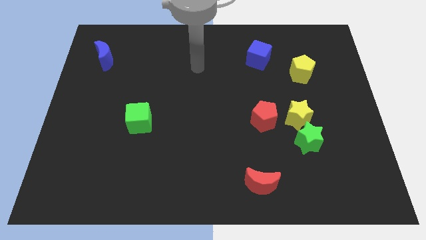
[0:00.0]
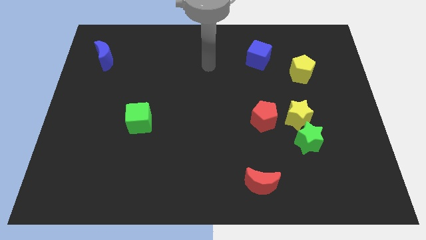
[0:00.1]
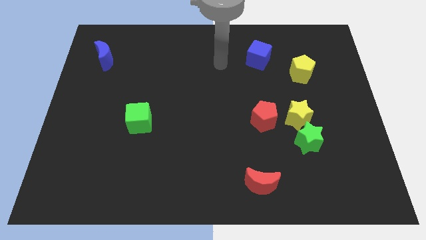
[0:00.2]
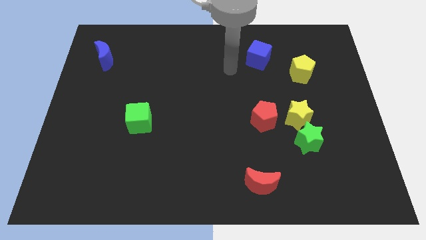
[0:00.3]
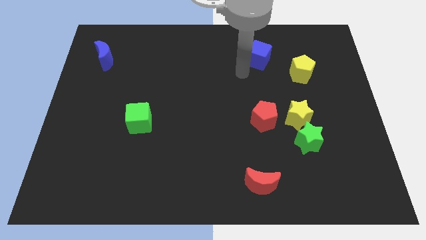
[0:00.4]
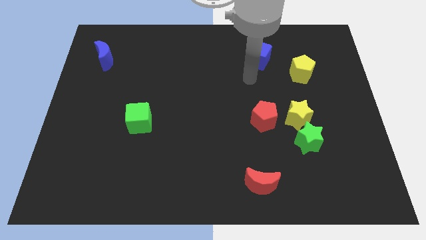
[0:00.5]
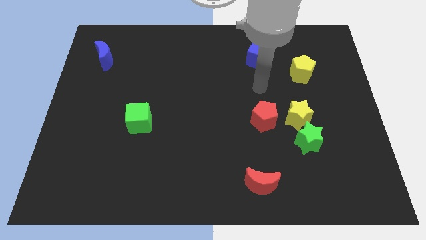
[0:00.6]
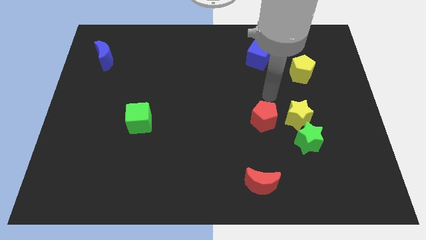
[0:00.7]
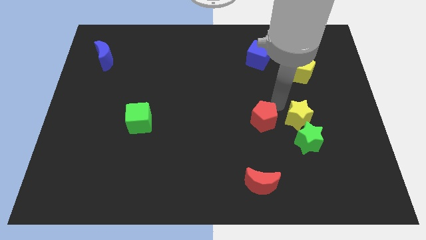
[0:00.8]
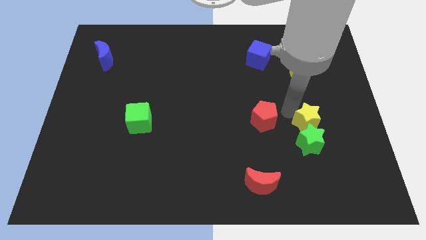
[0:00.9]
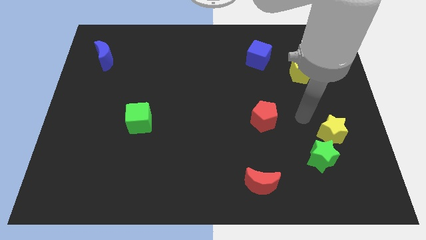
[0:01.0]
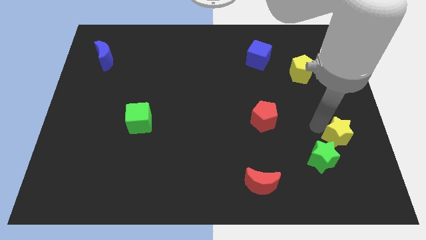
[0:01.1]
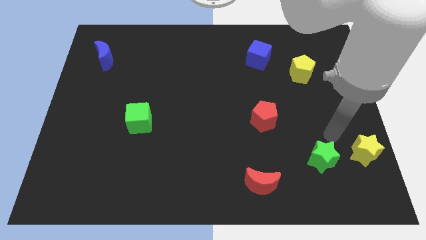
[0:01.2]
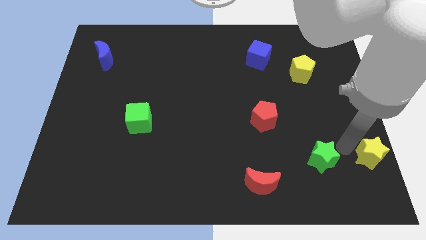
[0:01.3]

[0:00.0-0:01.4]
pull the green star apart from the yellow star

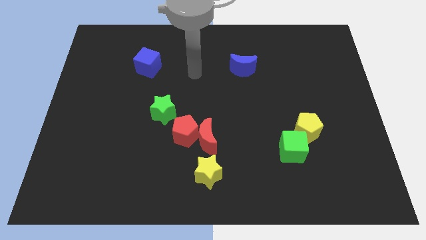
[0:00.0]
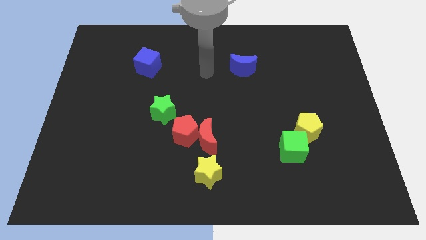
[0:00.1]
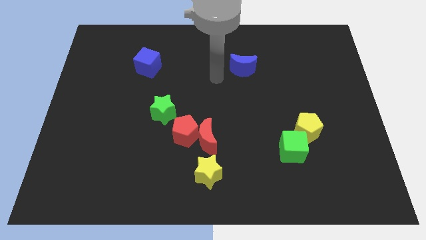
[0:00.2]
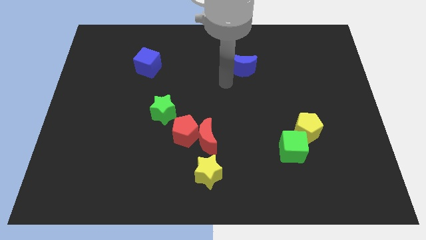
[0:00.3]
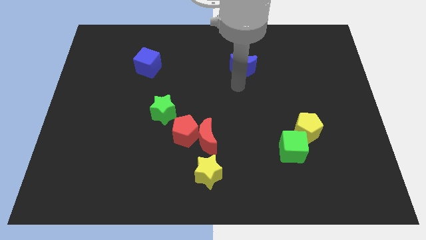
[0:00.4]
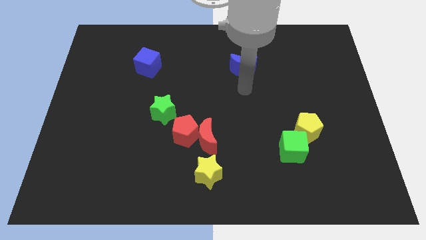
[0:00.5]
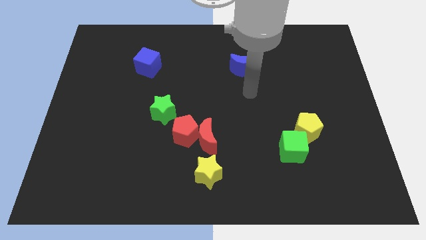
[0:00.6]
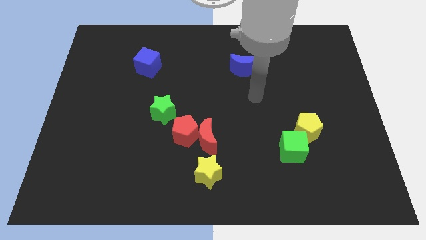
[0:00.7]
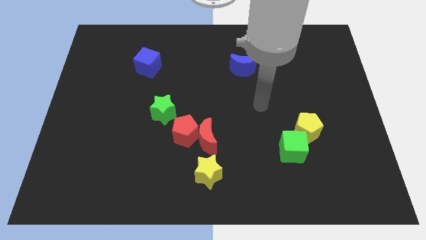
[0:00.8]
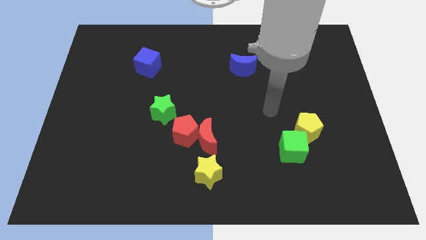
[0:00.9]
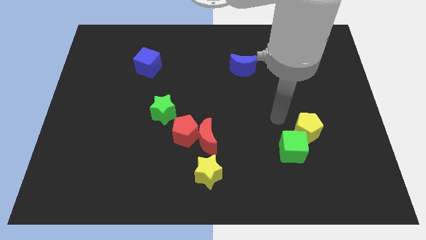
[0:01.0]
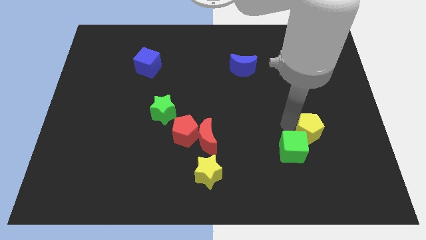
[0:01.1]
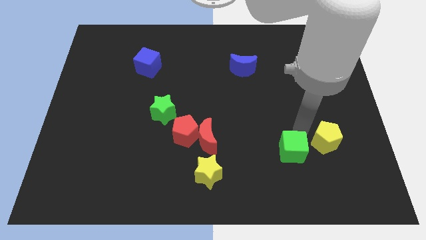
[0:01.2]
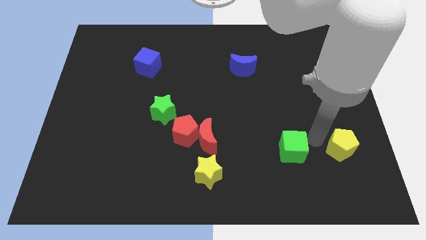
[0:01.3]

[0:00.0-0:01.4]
move the green cube away from the yellow pentagon

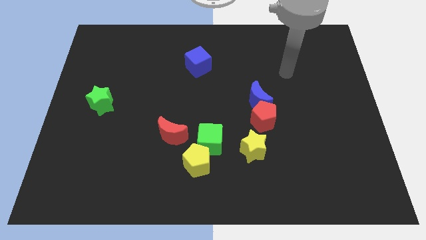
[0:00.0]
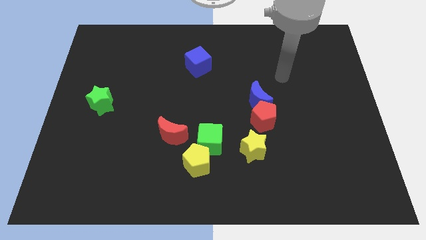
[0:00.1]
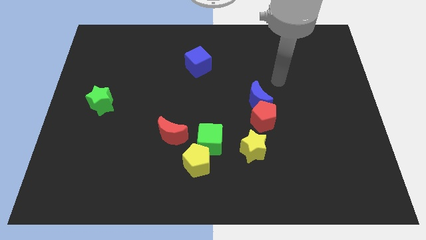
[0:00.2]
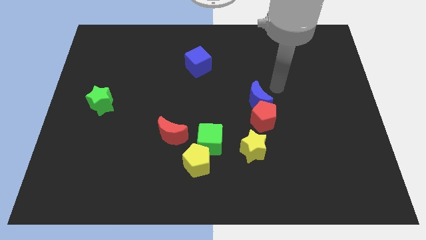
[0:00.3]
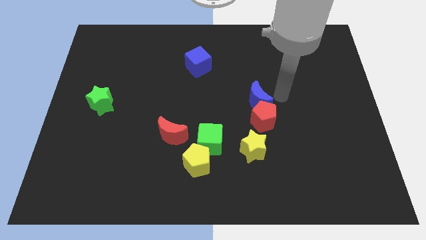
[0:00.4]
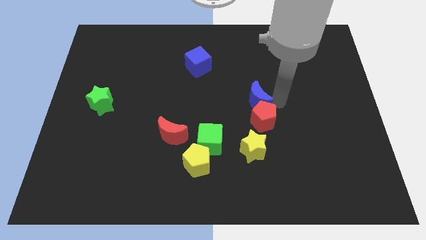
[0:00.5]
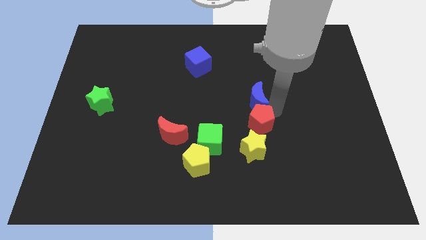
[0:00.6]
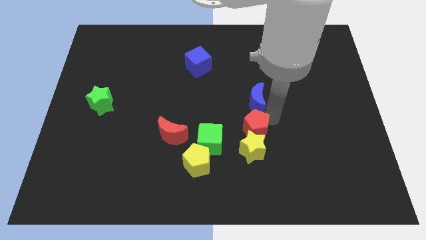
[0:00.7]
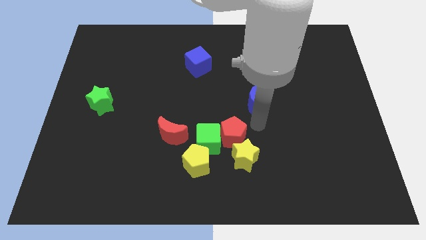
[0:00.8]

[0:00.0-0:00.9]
separate the blue moon from the red pentagon

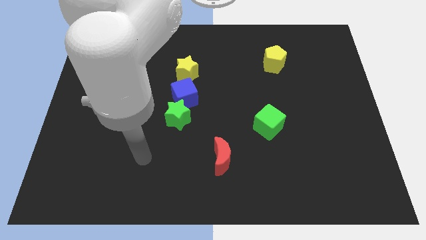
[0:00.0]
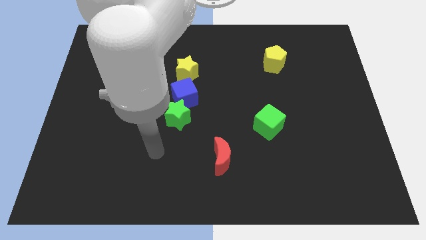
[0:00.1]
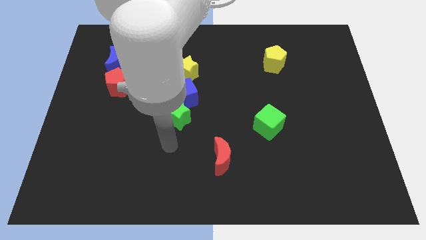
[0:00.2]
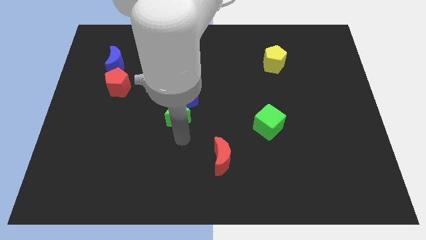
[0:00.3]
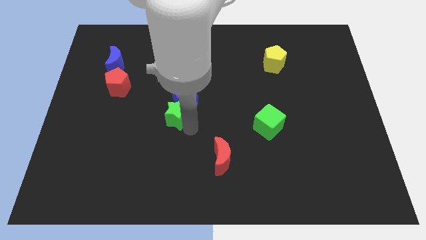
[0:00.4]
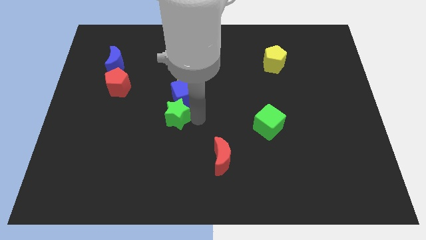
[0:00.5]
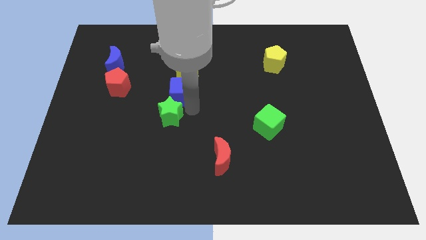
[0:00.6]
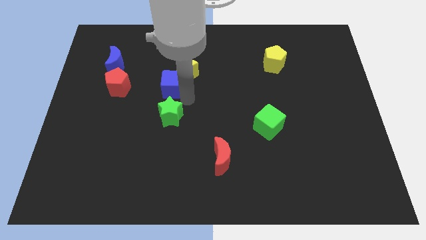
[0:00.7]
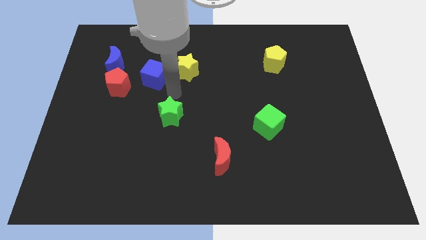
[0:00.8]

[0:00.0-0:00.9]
move the green star away from the blue cube

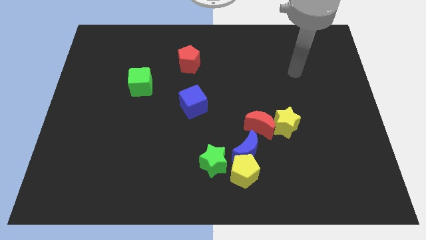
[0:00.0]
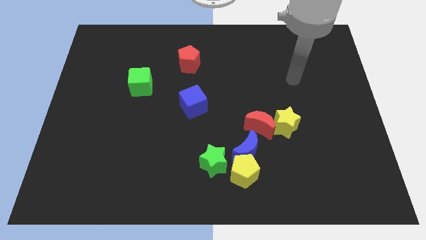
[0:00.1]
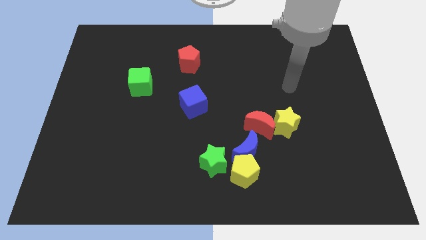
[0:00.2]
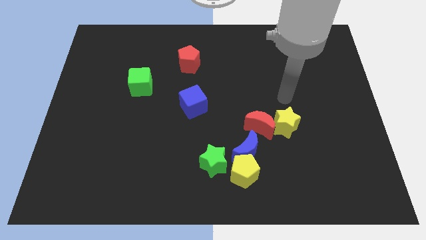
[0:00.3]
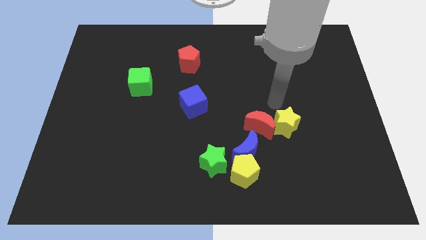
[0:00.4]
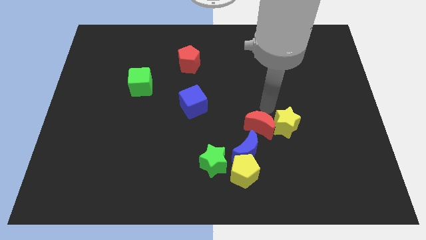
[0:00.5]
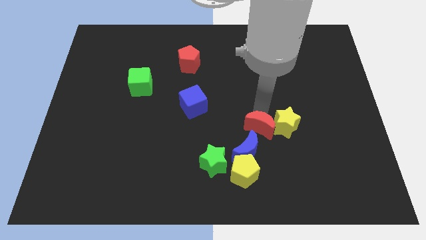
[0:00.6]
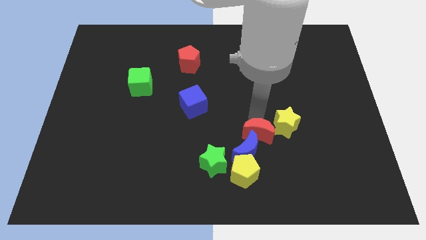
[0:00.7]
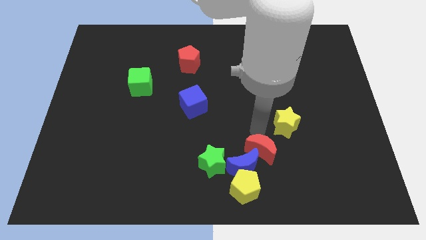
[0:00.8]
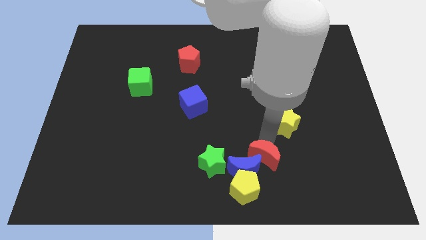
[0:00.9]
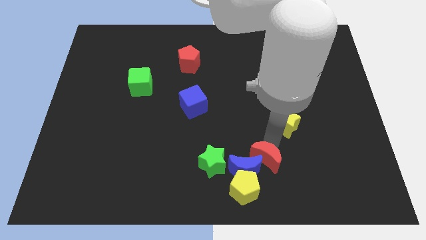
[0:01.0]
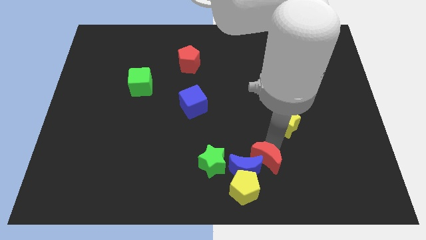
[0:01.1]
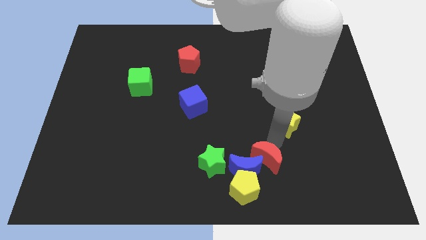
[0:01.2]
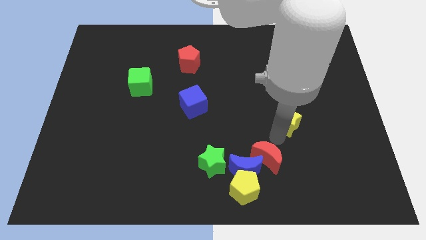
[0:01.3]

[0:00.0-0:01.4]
separate the yellow star from the red moon

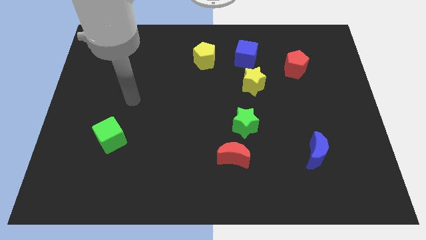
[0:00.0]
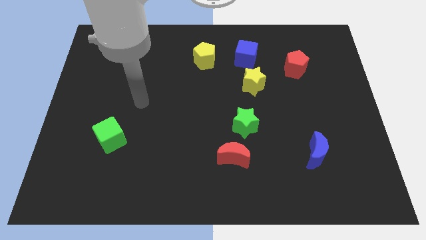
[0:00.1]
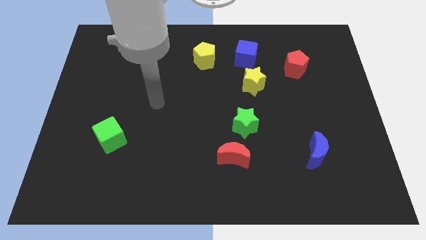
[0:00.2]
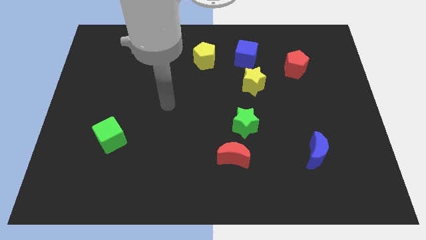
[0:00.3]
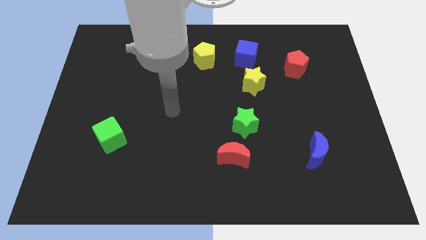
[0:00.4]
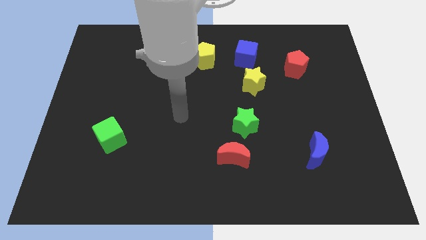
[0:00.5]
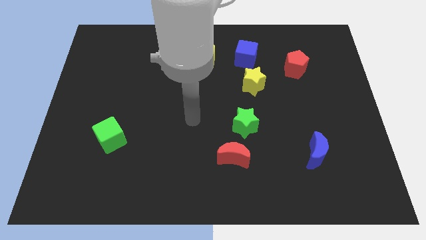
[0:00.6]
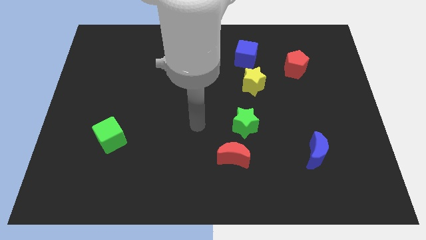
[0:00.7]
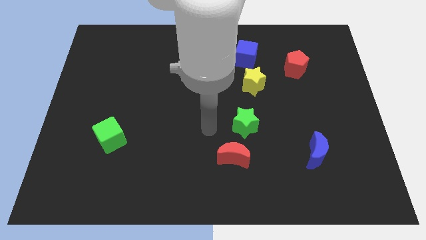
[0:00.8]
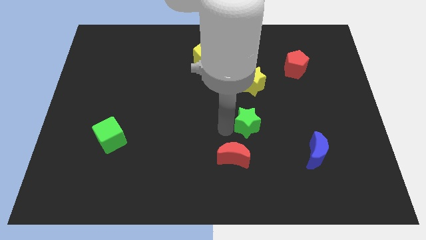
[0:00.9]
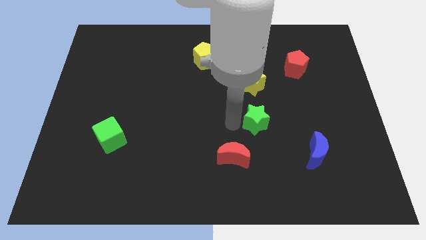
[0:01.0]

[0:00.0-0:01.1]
separate the red moon from the green star

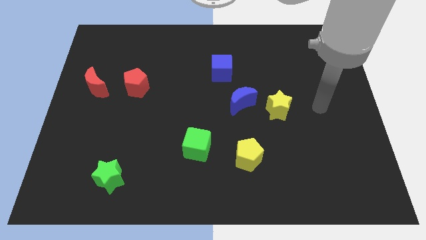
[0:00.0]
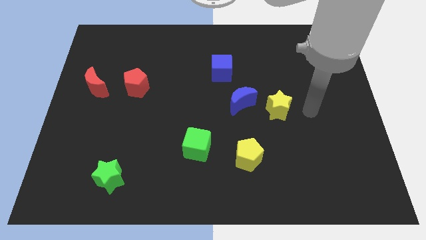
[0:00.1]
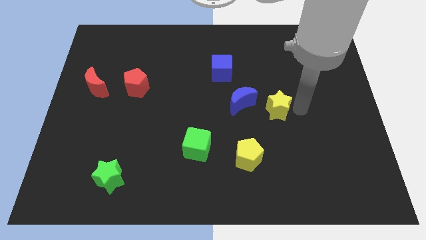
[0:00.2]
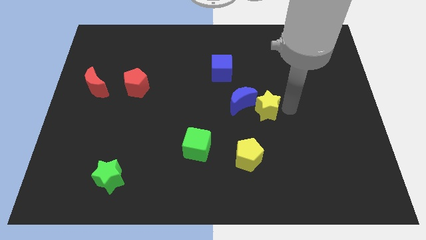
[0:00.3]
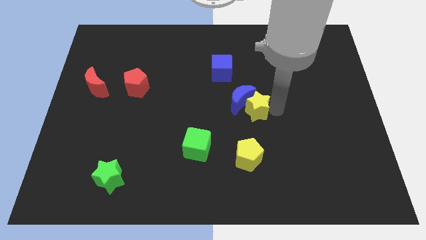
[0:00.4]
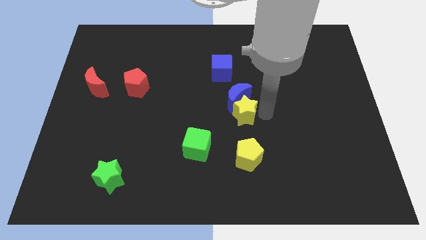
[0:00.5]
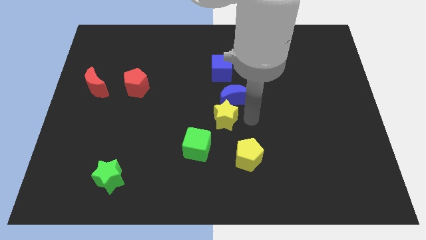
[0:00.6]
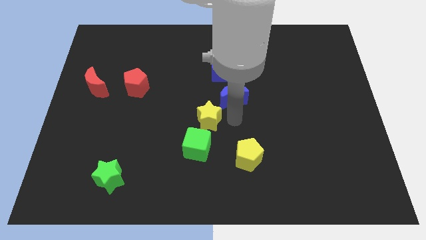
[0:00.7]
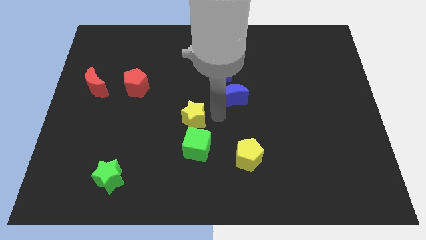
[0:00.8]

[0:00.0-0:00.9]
separate the blue moon from the yellow star

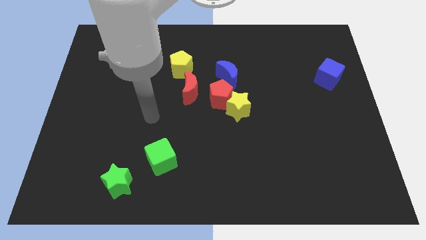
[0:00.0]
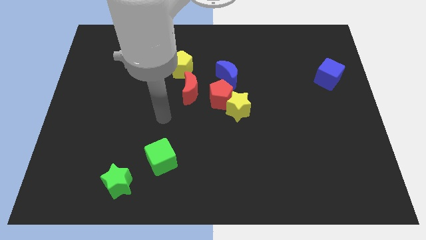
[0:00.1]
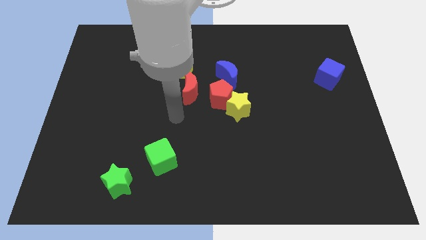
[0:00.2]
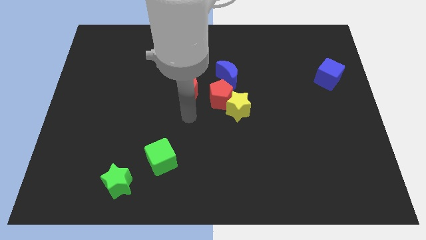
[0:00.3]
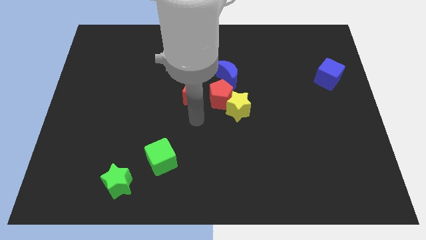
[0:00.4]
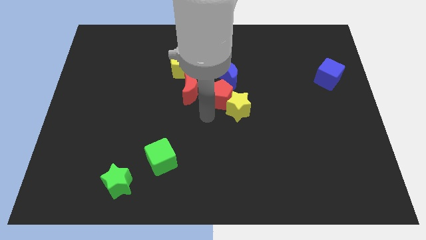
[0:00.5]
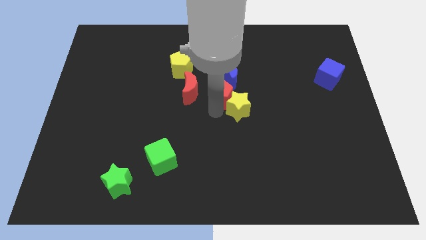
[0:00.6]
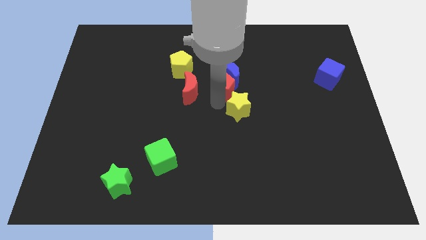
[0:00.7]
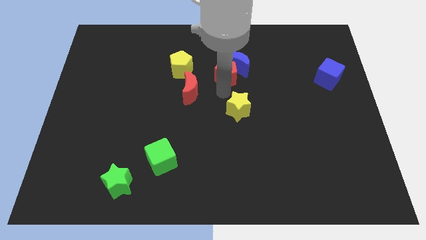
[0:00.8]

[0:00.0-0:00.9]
separate the yellow star from the red pentagon

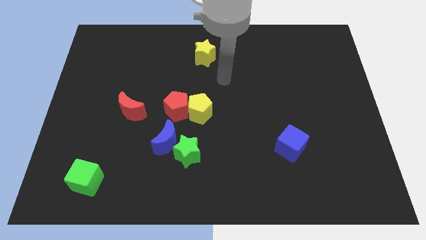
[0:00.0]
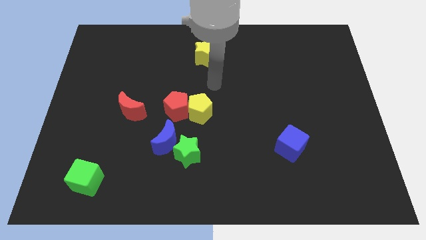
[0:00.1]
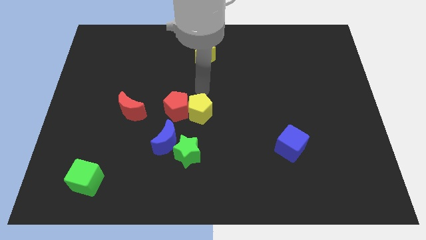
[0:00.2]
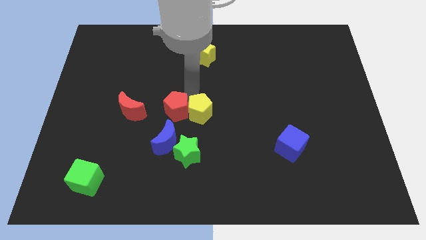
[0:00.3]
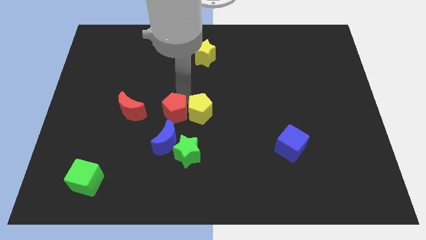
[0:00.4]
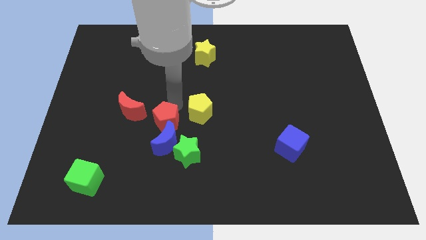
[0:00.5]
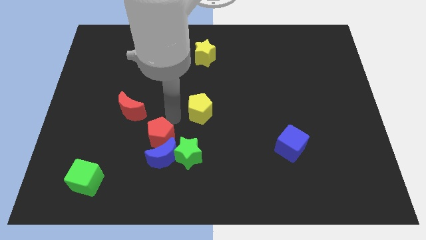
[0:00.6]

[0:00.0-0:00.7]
separate the yellow pentagon from the red pentagon
